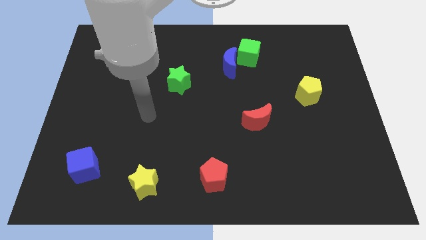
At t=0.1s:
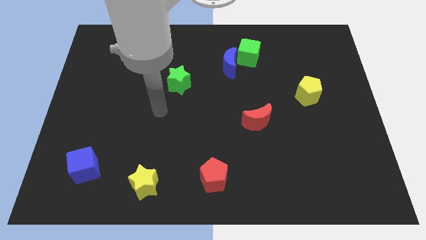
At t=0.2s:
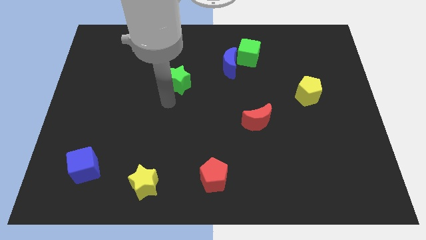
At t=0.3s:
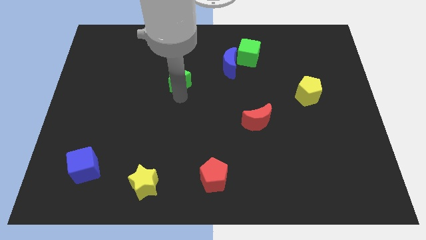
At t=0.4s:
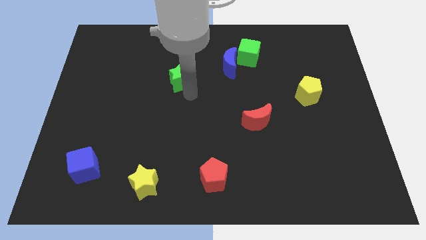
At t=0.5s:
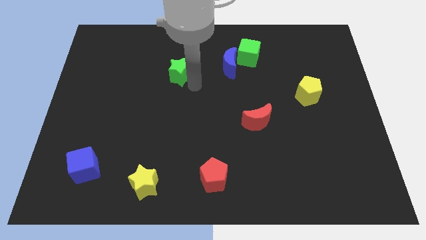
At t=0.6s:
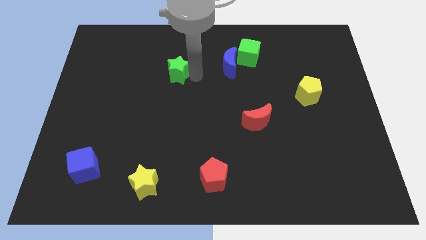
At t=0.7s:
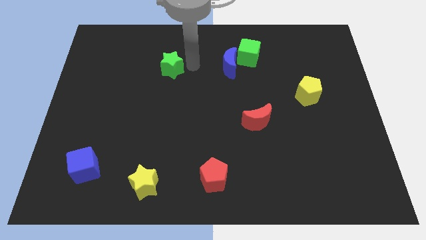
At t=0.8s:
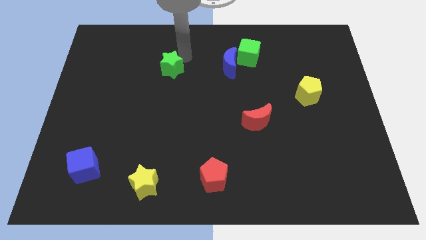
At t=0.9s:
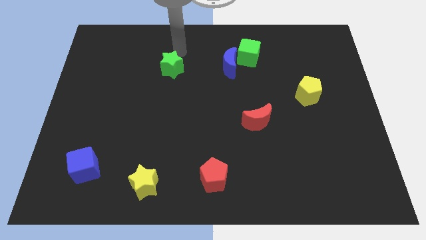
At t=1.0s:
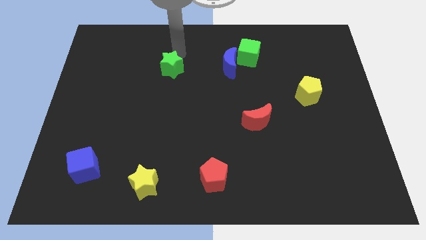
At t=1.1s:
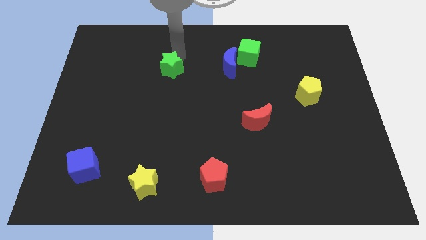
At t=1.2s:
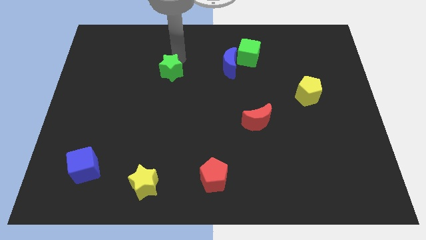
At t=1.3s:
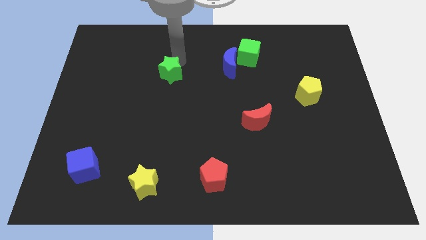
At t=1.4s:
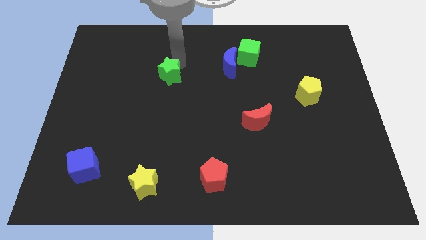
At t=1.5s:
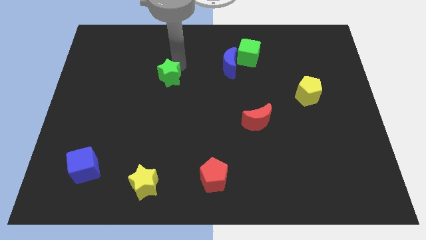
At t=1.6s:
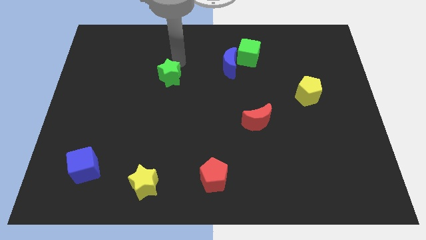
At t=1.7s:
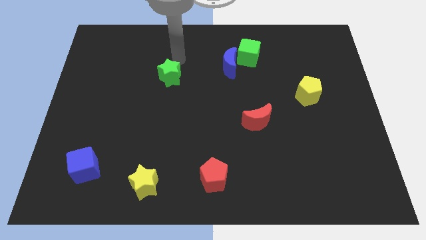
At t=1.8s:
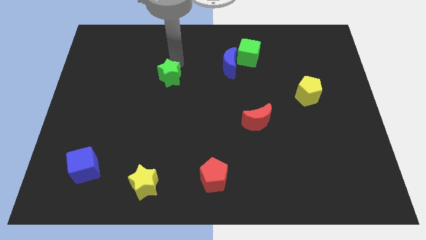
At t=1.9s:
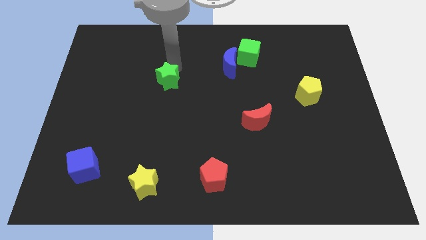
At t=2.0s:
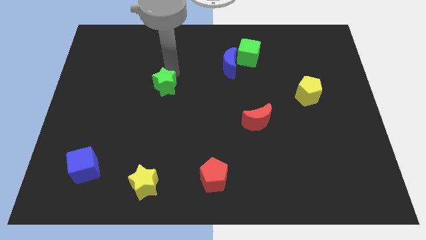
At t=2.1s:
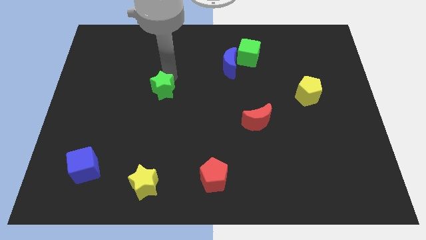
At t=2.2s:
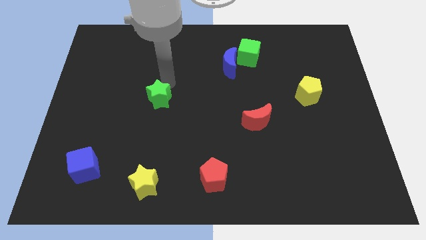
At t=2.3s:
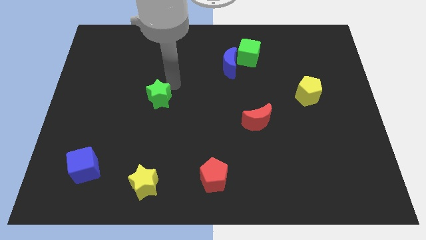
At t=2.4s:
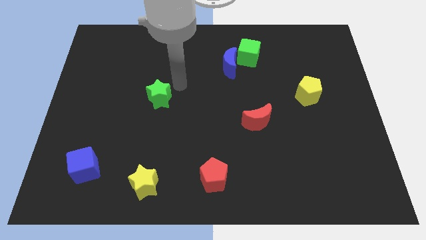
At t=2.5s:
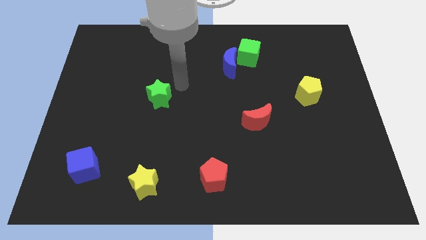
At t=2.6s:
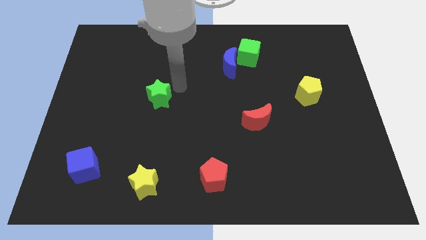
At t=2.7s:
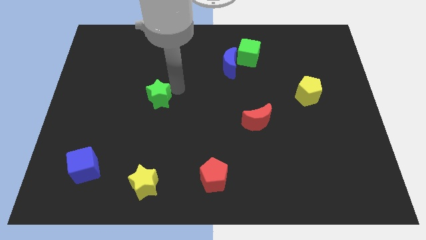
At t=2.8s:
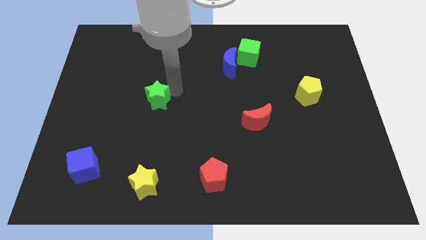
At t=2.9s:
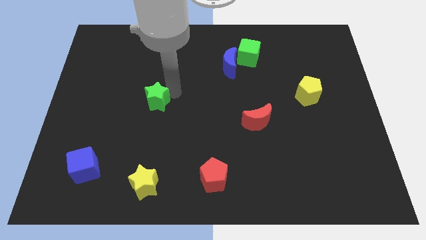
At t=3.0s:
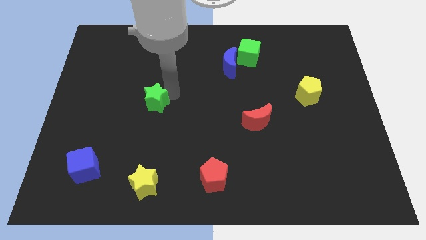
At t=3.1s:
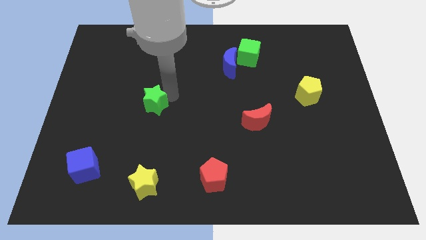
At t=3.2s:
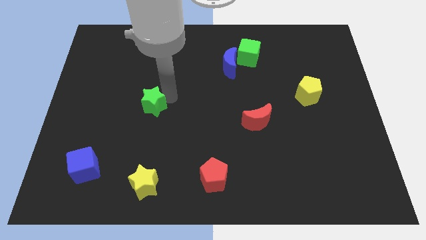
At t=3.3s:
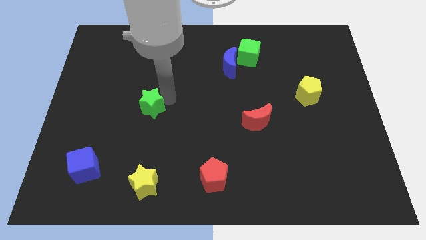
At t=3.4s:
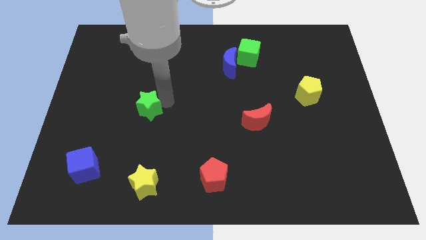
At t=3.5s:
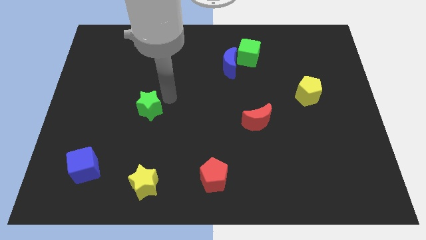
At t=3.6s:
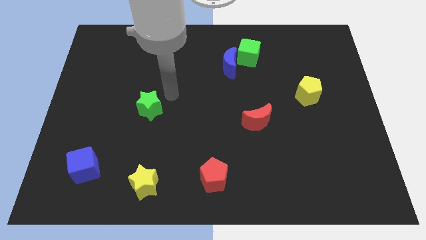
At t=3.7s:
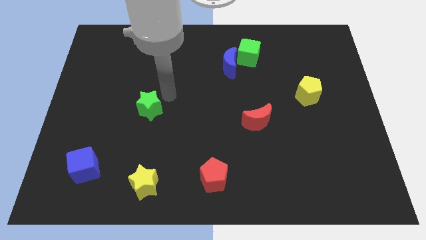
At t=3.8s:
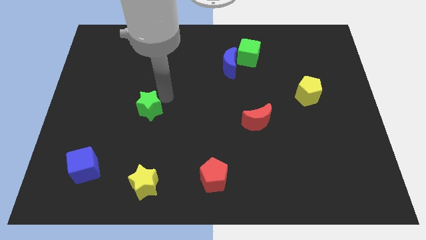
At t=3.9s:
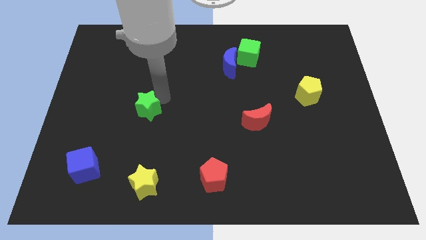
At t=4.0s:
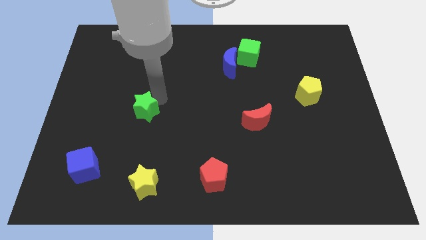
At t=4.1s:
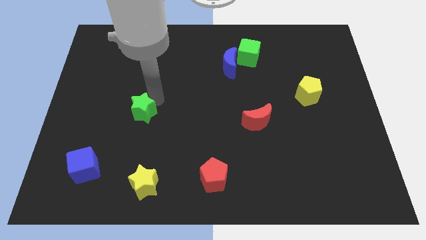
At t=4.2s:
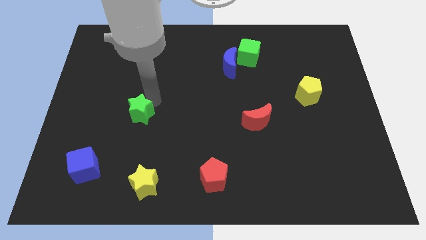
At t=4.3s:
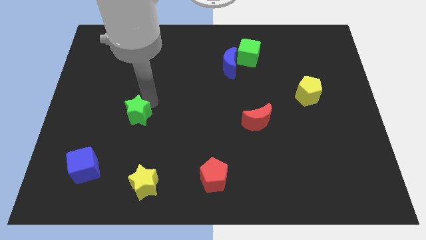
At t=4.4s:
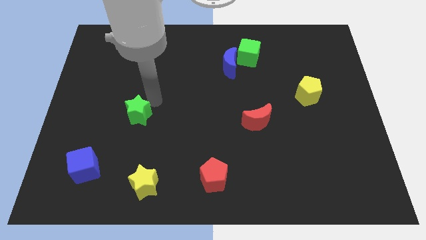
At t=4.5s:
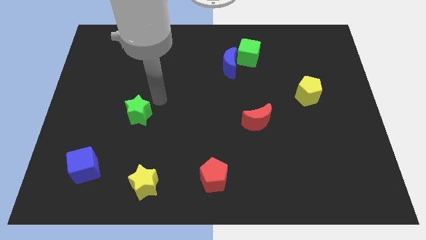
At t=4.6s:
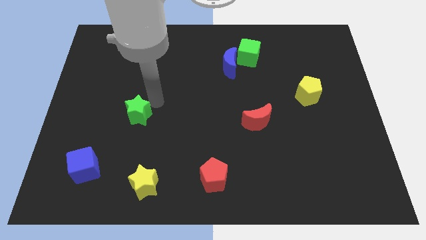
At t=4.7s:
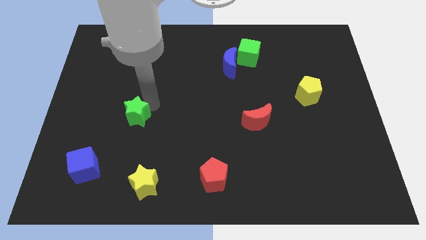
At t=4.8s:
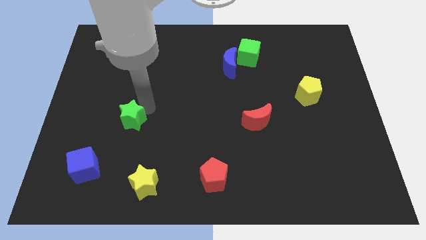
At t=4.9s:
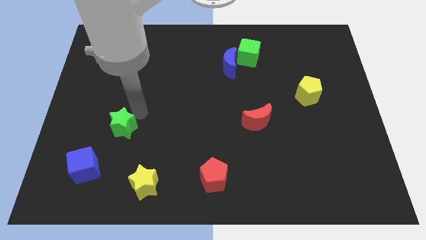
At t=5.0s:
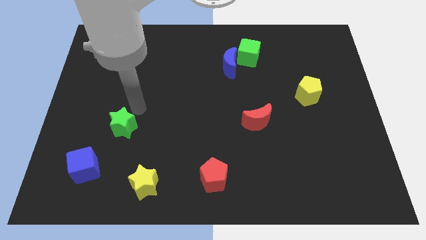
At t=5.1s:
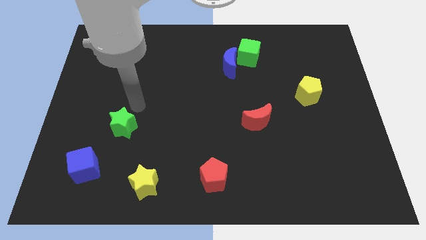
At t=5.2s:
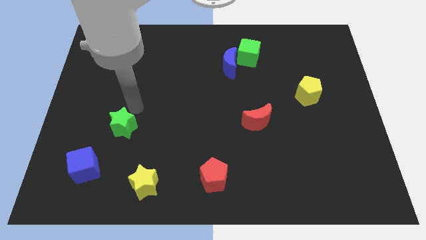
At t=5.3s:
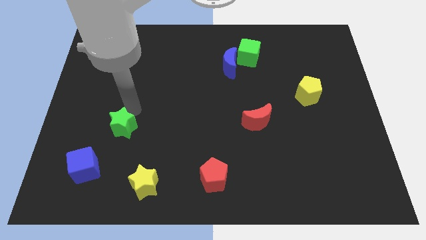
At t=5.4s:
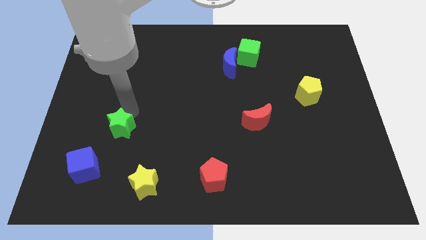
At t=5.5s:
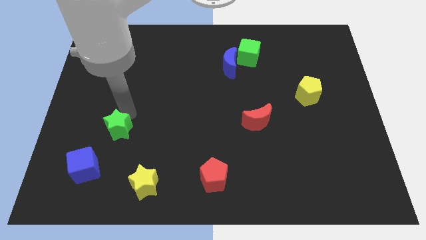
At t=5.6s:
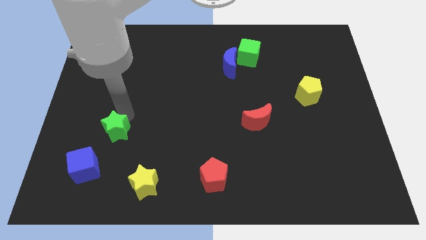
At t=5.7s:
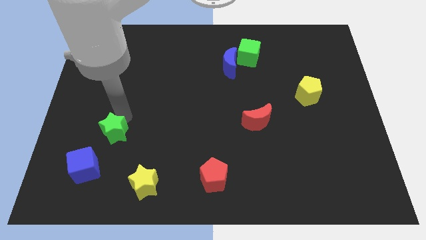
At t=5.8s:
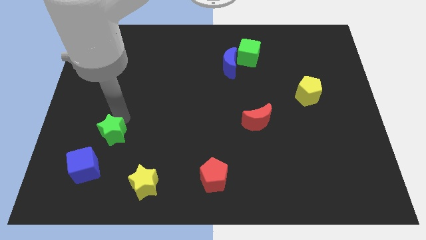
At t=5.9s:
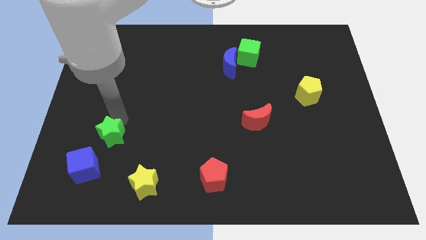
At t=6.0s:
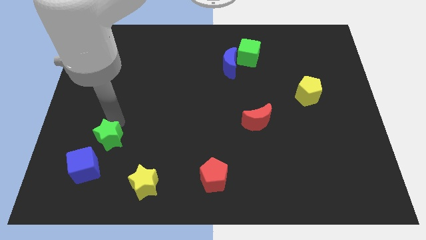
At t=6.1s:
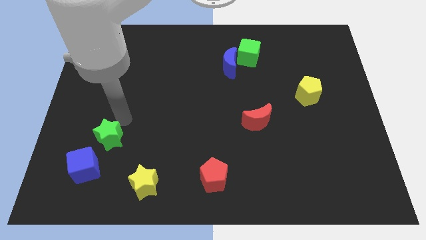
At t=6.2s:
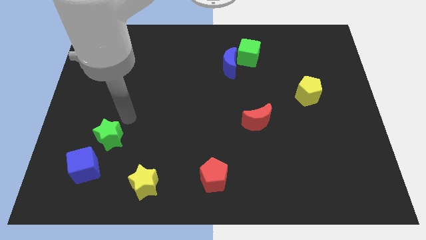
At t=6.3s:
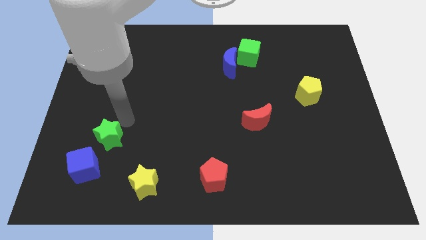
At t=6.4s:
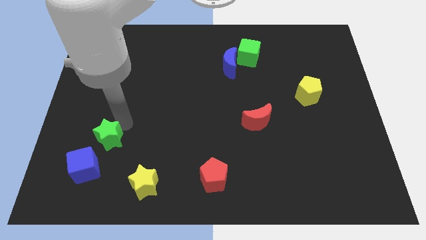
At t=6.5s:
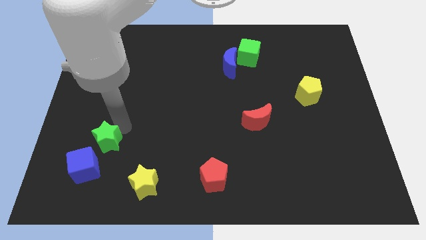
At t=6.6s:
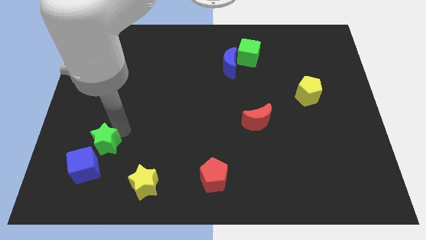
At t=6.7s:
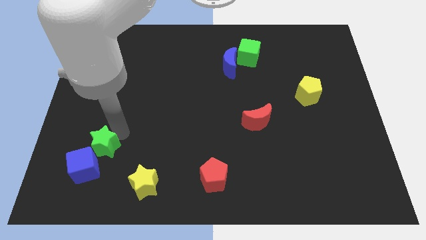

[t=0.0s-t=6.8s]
slide the green star next to the blue cube
